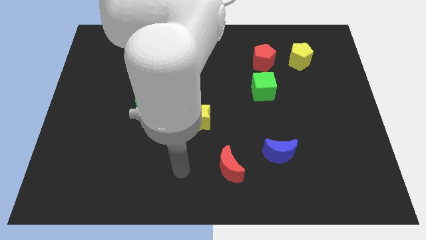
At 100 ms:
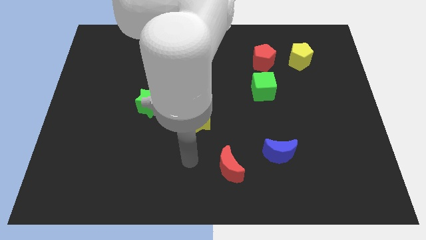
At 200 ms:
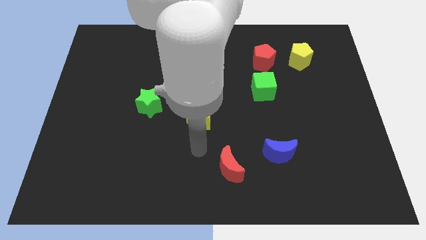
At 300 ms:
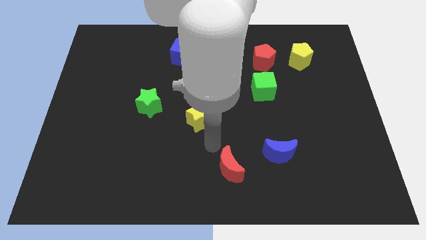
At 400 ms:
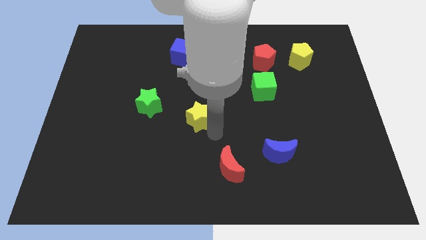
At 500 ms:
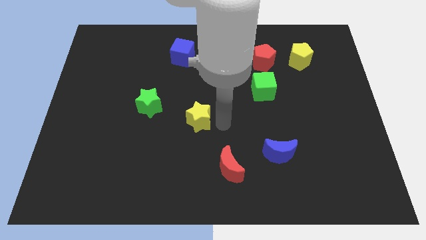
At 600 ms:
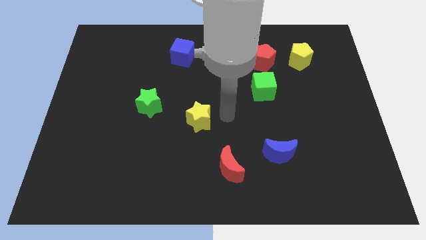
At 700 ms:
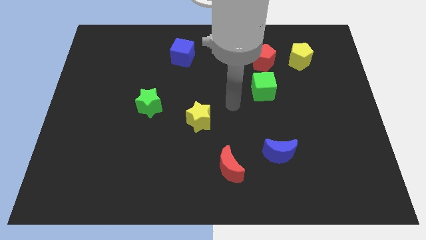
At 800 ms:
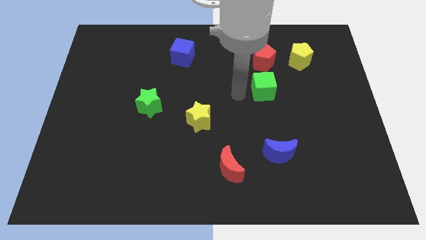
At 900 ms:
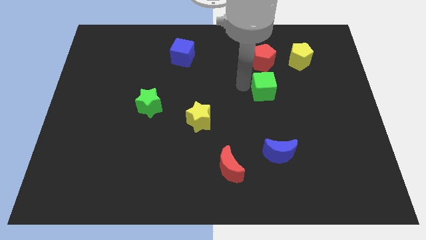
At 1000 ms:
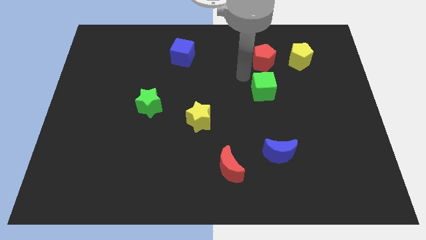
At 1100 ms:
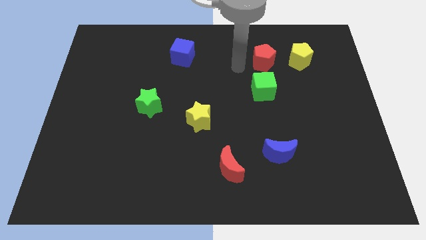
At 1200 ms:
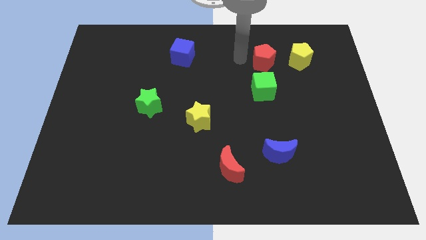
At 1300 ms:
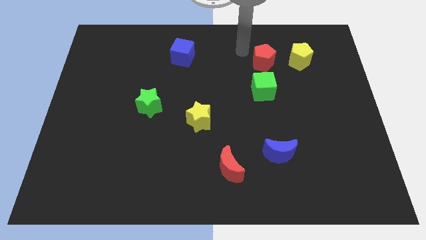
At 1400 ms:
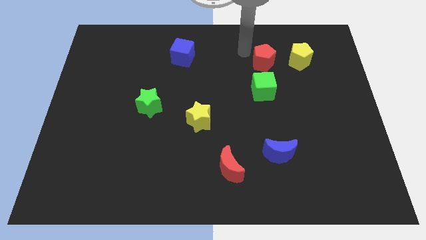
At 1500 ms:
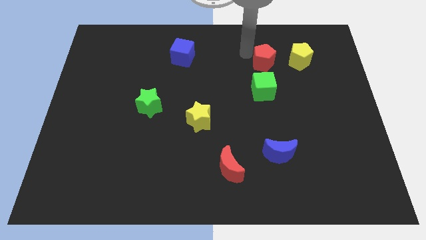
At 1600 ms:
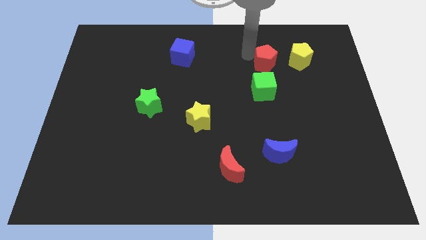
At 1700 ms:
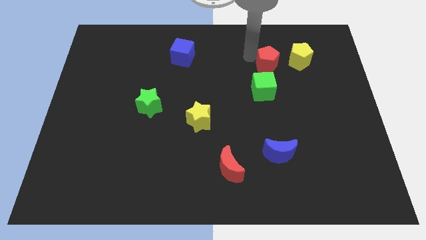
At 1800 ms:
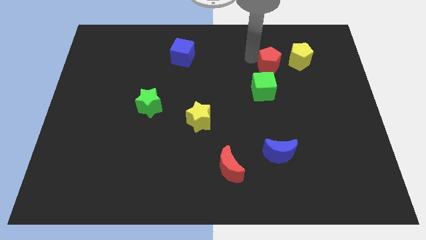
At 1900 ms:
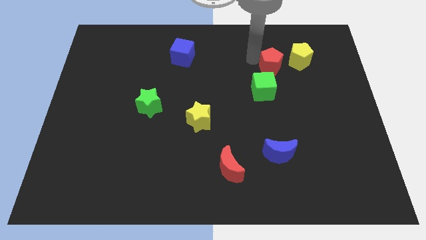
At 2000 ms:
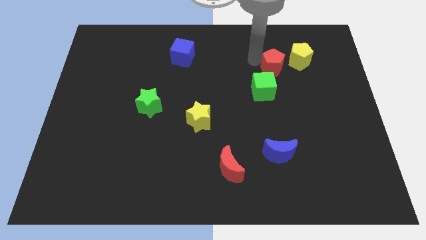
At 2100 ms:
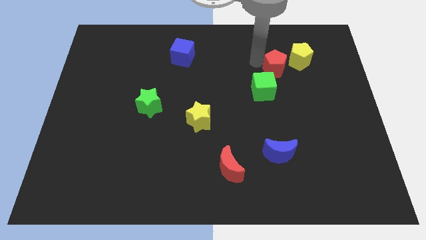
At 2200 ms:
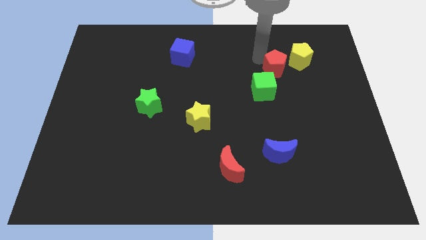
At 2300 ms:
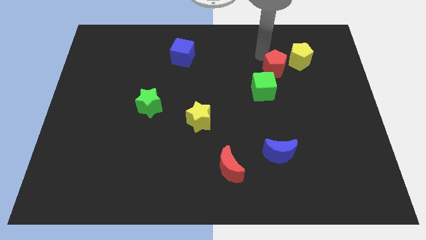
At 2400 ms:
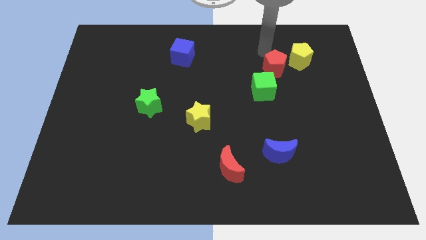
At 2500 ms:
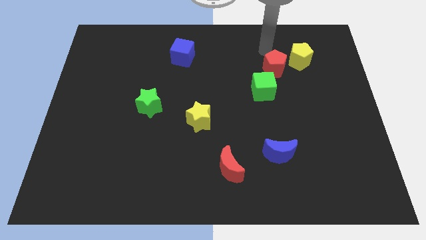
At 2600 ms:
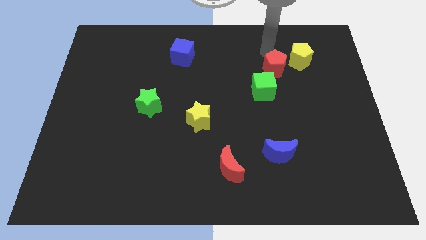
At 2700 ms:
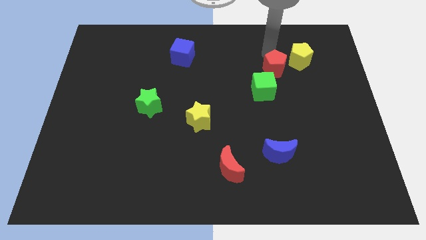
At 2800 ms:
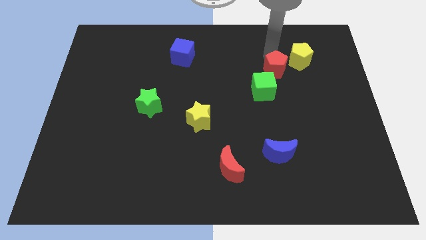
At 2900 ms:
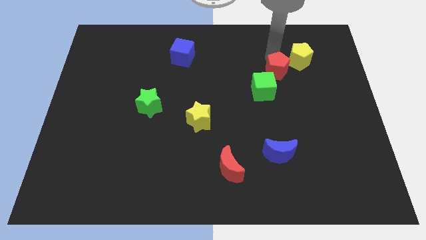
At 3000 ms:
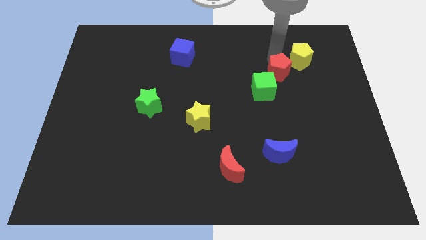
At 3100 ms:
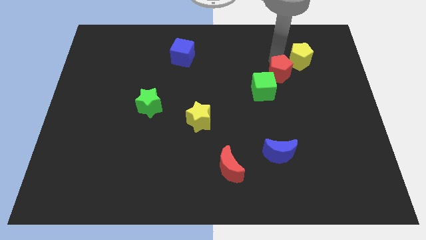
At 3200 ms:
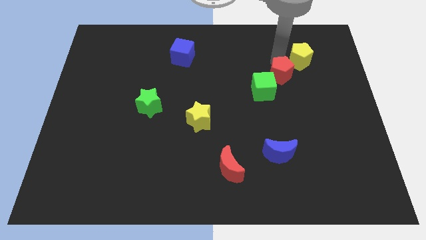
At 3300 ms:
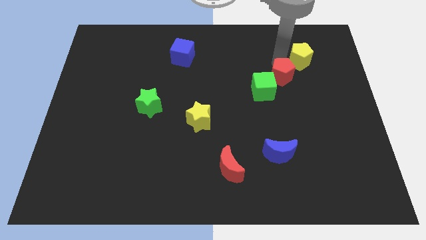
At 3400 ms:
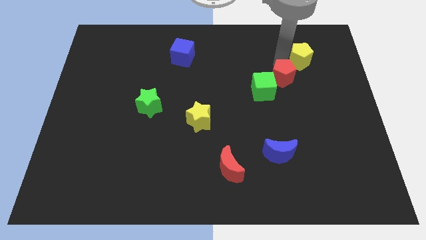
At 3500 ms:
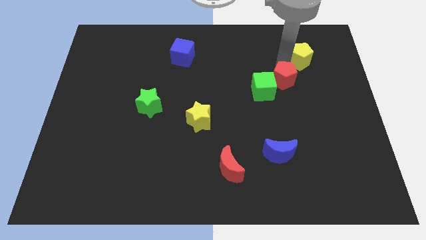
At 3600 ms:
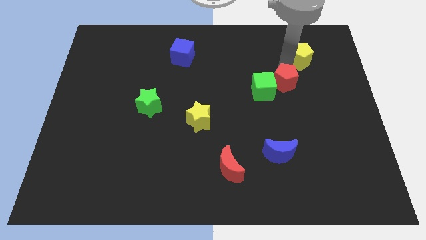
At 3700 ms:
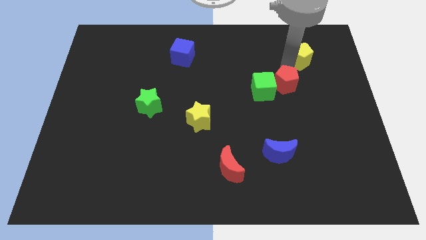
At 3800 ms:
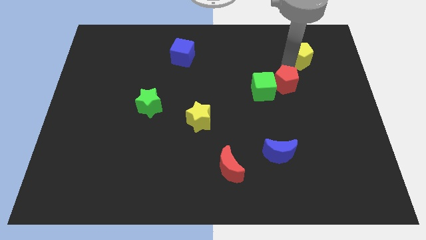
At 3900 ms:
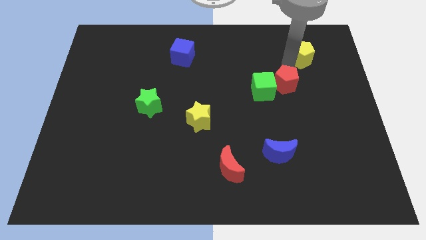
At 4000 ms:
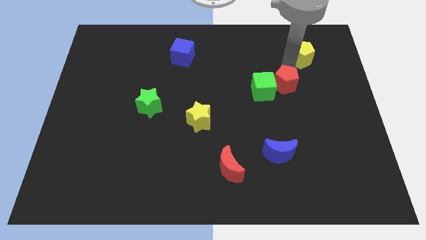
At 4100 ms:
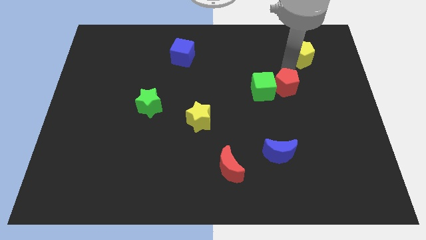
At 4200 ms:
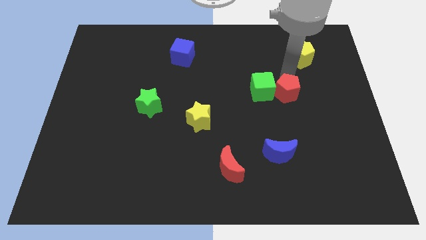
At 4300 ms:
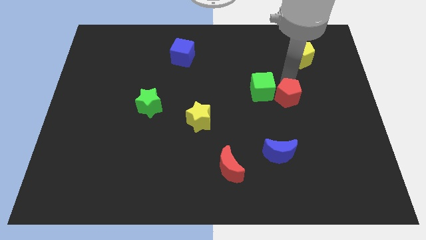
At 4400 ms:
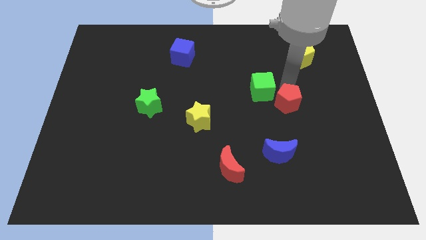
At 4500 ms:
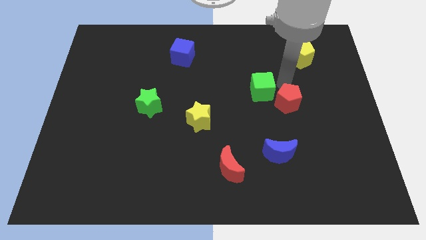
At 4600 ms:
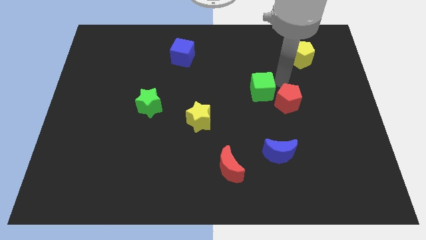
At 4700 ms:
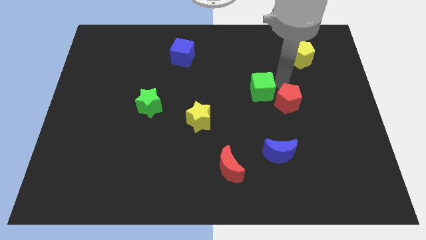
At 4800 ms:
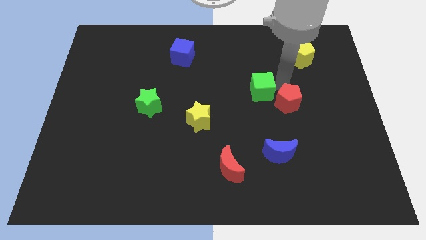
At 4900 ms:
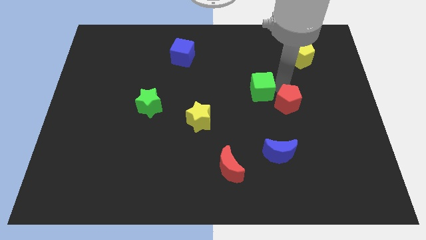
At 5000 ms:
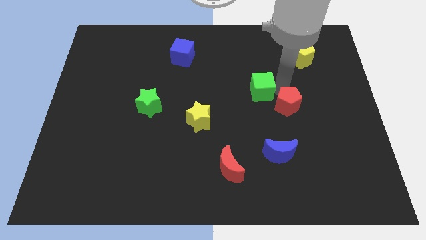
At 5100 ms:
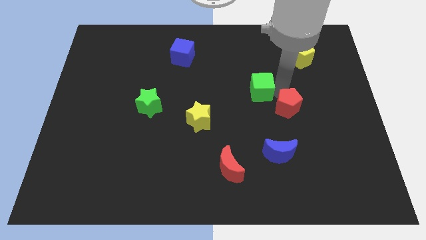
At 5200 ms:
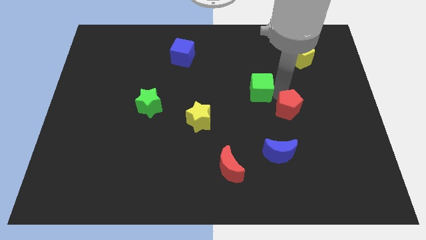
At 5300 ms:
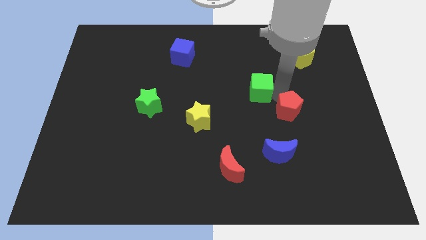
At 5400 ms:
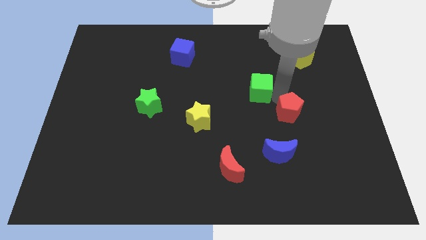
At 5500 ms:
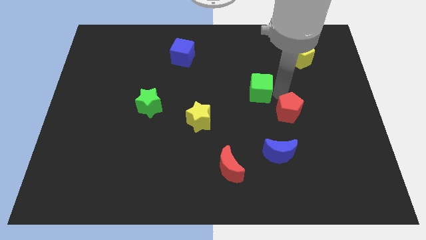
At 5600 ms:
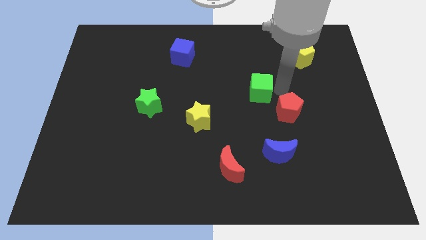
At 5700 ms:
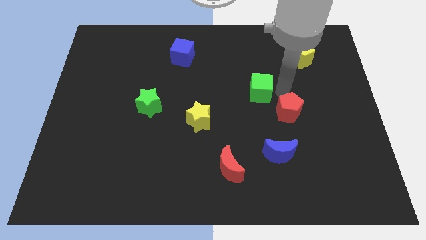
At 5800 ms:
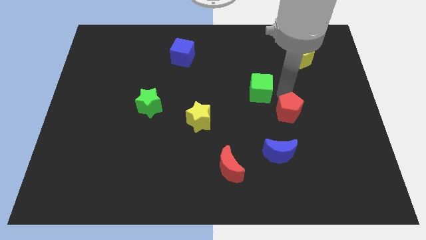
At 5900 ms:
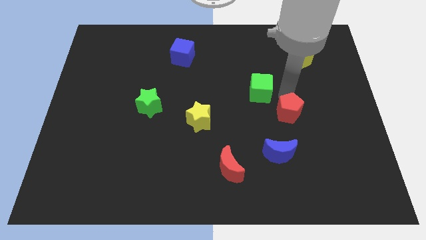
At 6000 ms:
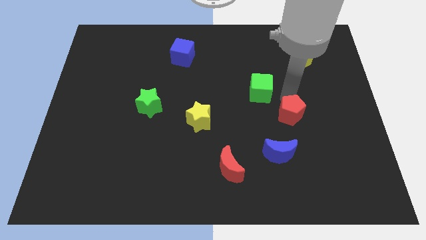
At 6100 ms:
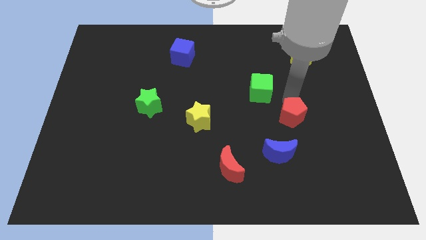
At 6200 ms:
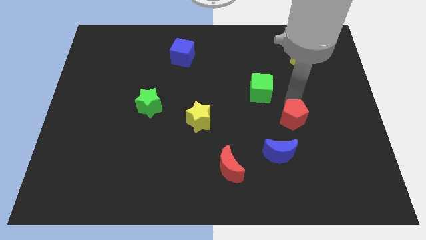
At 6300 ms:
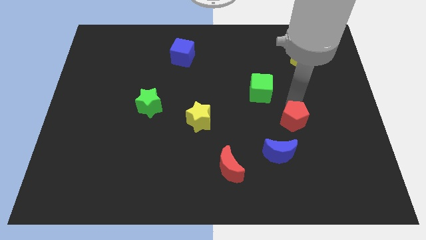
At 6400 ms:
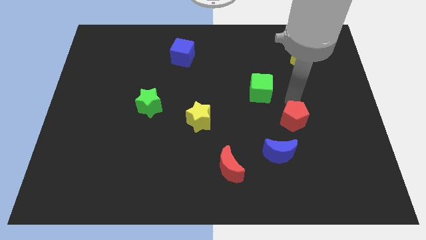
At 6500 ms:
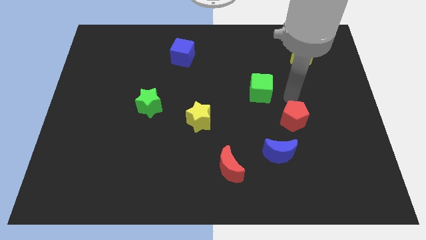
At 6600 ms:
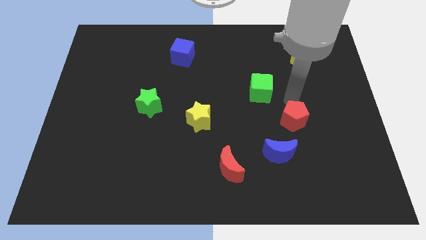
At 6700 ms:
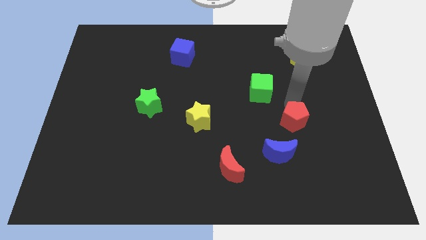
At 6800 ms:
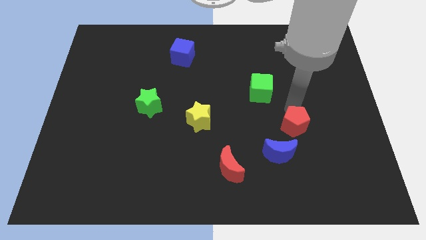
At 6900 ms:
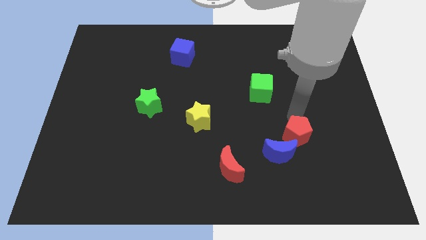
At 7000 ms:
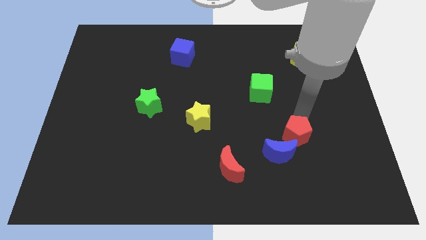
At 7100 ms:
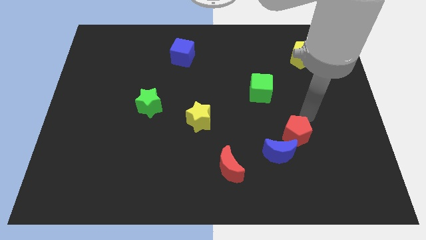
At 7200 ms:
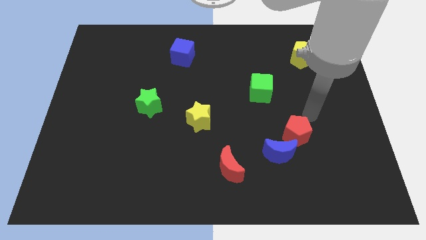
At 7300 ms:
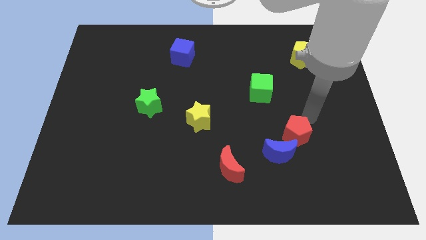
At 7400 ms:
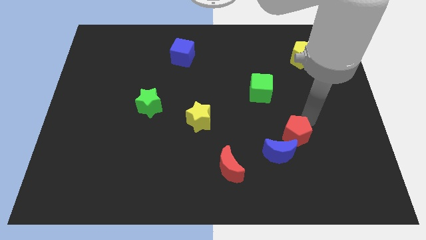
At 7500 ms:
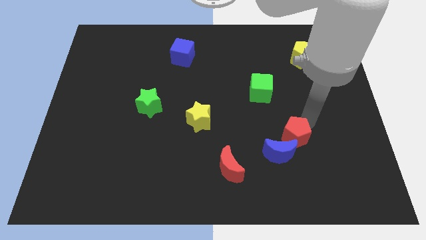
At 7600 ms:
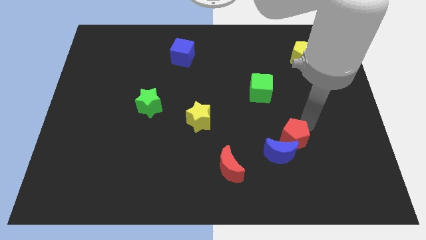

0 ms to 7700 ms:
move the red pentagon to the blue moon
